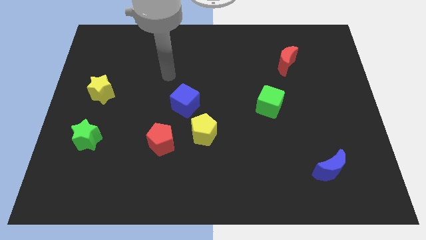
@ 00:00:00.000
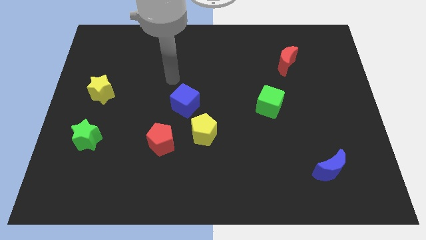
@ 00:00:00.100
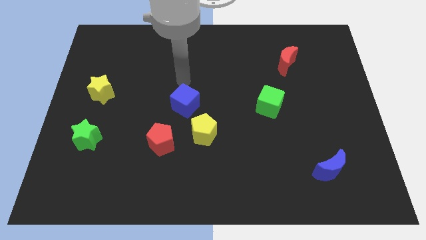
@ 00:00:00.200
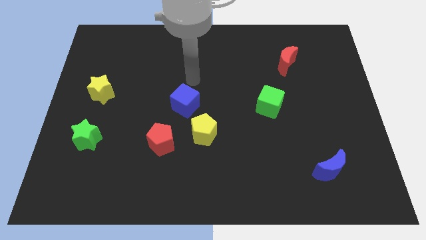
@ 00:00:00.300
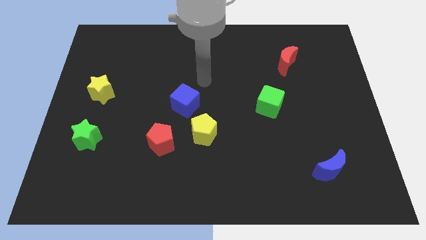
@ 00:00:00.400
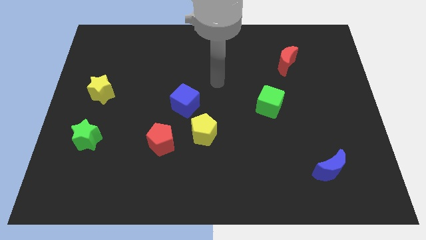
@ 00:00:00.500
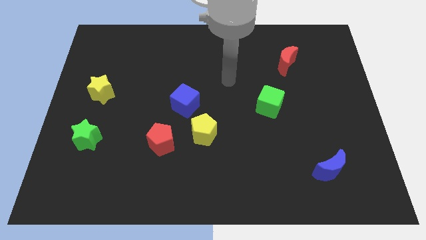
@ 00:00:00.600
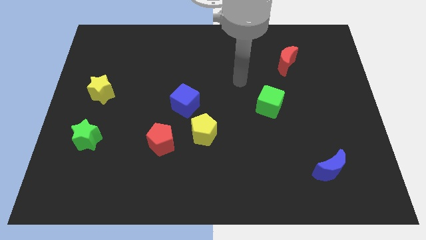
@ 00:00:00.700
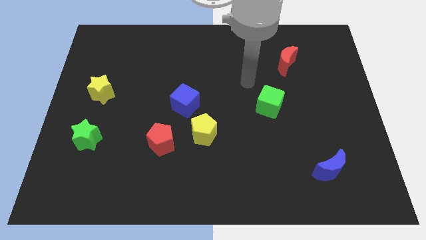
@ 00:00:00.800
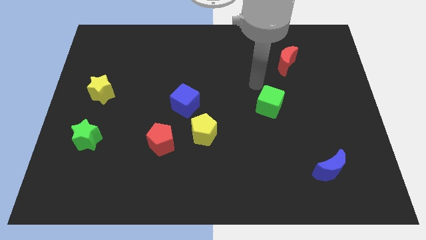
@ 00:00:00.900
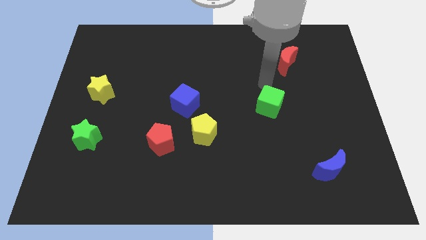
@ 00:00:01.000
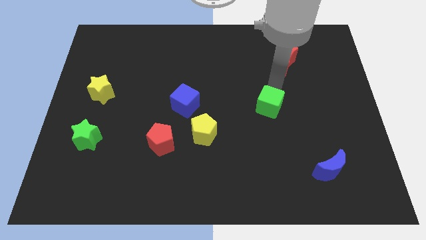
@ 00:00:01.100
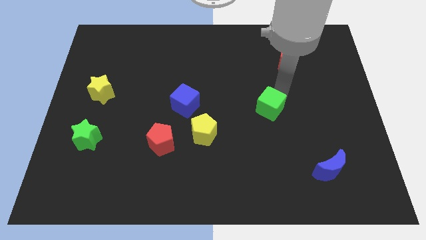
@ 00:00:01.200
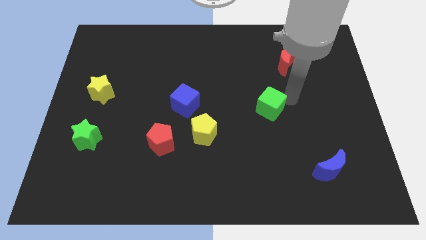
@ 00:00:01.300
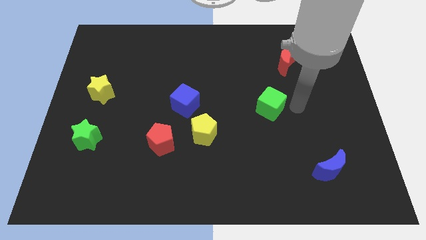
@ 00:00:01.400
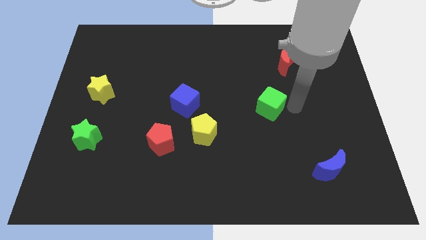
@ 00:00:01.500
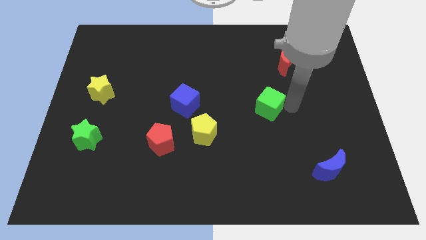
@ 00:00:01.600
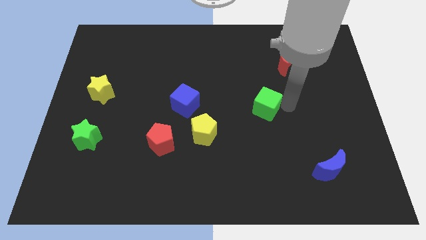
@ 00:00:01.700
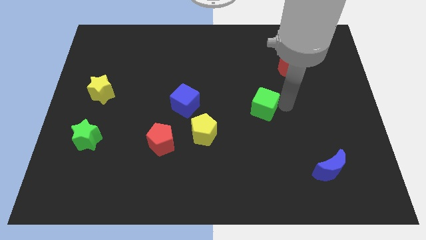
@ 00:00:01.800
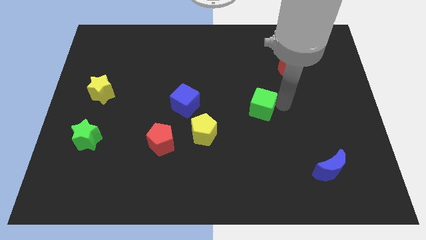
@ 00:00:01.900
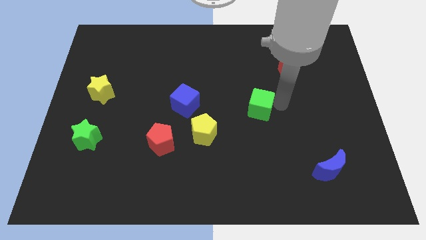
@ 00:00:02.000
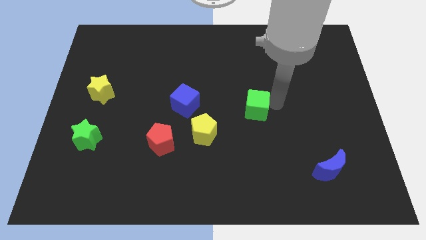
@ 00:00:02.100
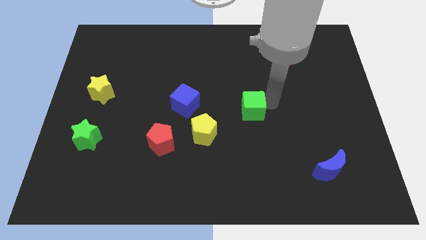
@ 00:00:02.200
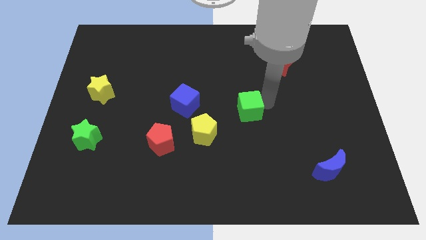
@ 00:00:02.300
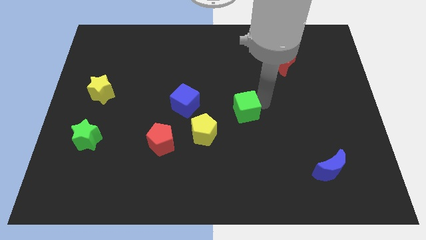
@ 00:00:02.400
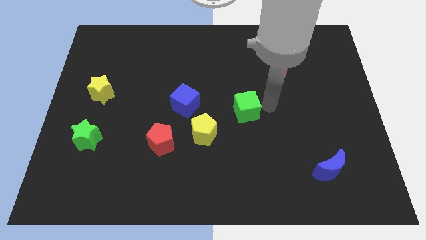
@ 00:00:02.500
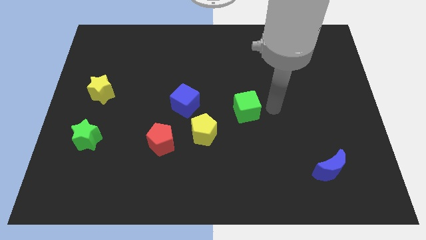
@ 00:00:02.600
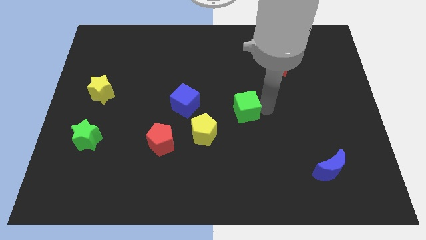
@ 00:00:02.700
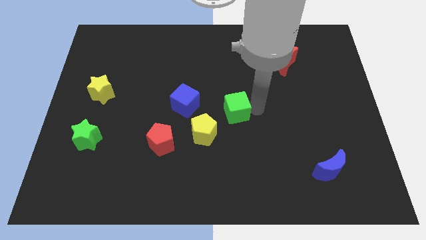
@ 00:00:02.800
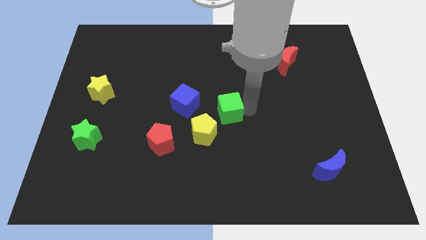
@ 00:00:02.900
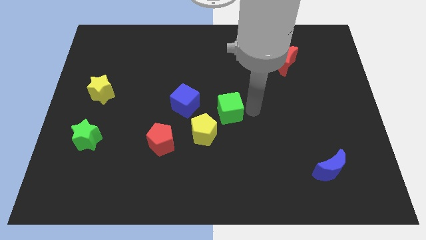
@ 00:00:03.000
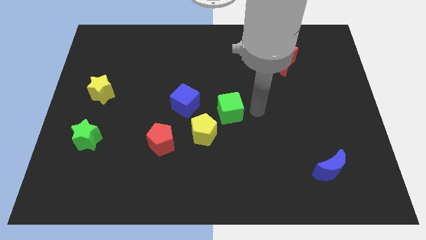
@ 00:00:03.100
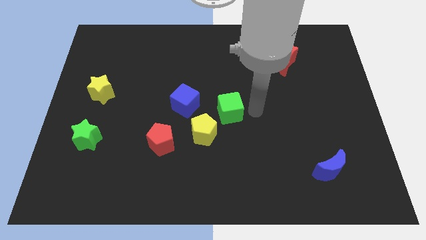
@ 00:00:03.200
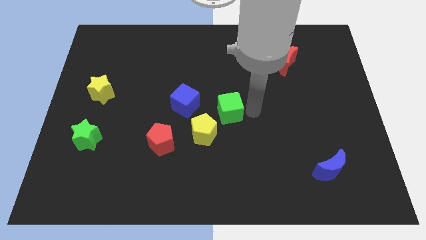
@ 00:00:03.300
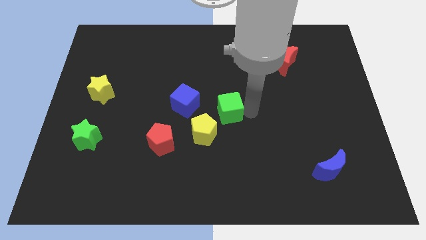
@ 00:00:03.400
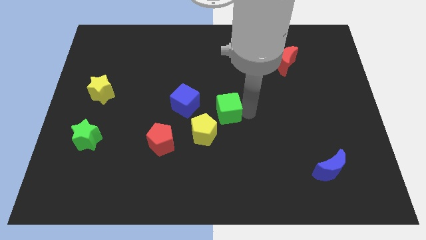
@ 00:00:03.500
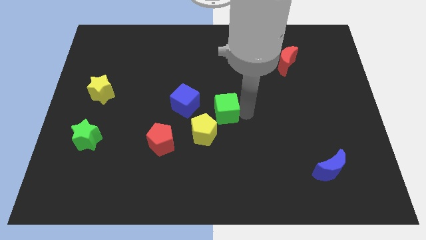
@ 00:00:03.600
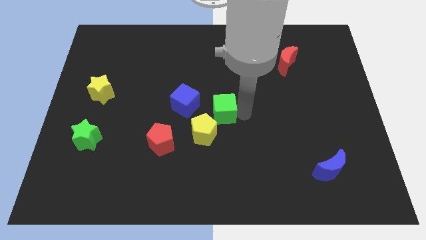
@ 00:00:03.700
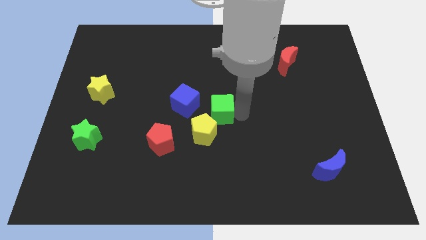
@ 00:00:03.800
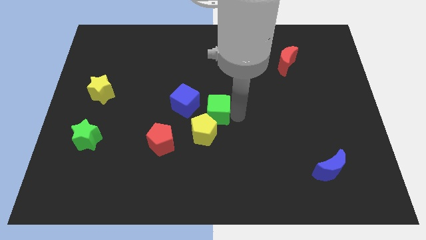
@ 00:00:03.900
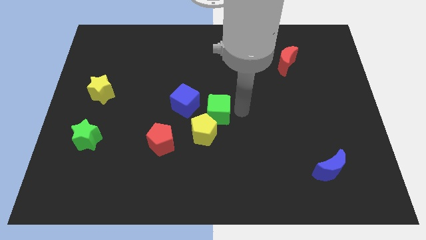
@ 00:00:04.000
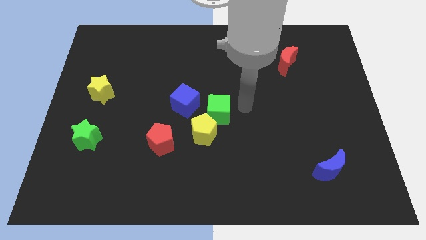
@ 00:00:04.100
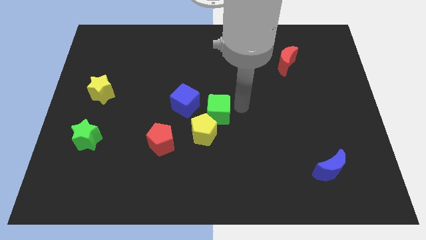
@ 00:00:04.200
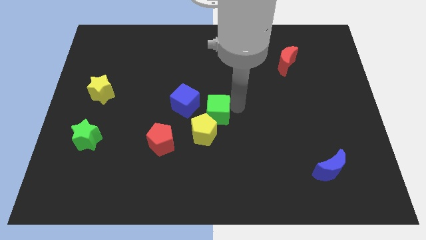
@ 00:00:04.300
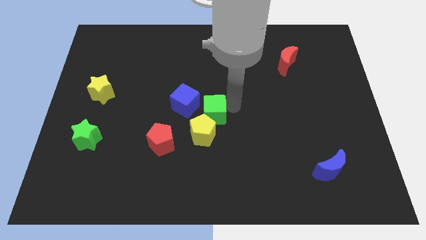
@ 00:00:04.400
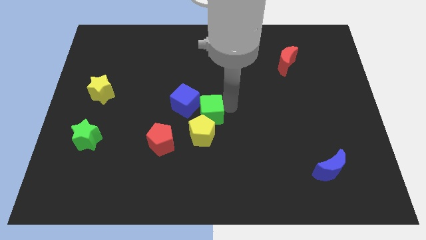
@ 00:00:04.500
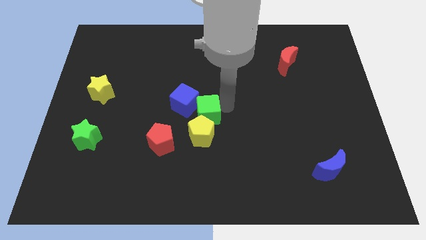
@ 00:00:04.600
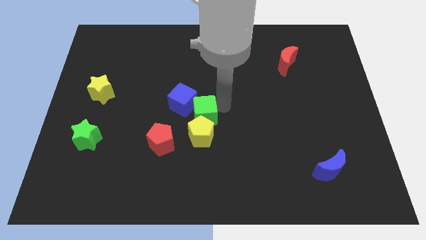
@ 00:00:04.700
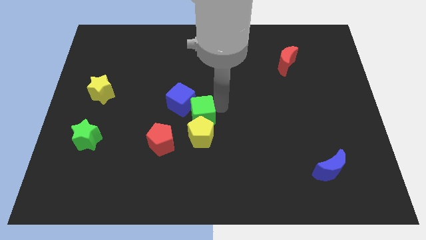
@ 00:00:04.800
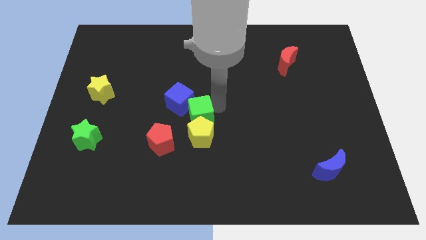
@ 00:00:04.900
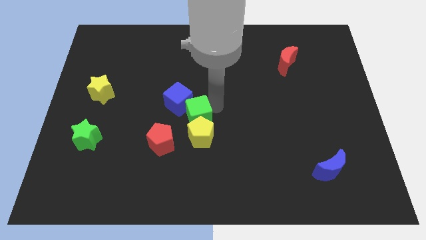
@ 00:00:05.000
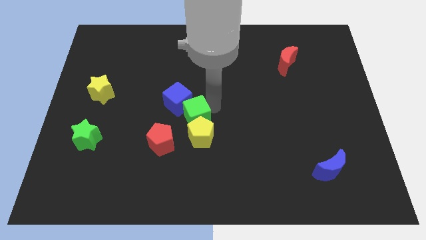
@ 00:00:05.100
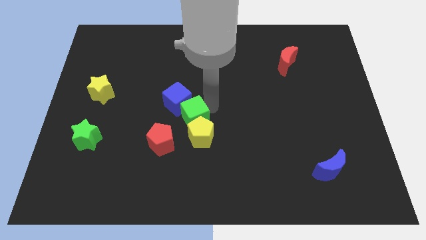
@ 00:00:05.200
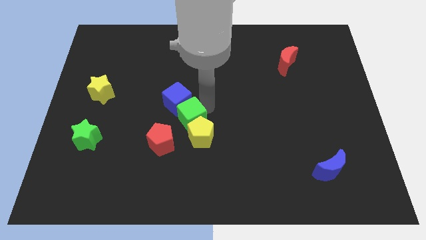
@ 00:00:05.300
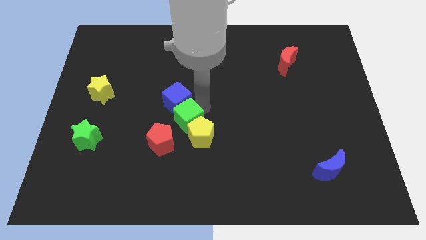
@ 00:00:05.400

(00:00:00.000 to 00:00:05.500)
slide the green cube just left of the yellow pentagon

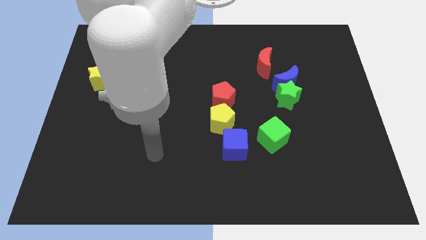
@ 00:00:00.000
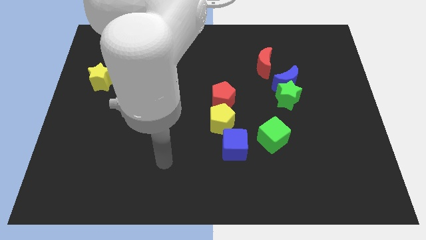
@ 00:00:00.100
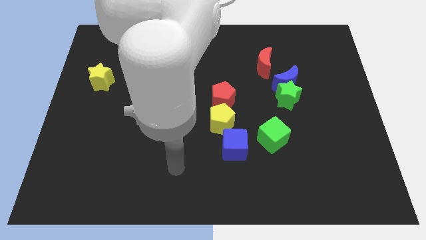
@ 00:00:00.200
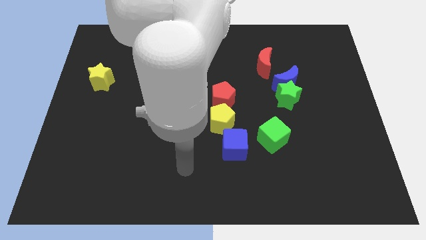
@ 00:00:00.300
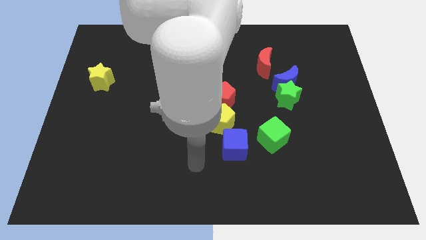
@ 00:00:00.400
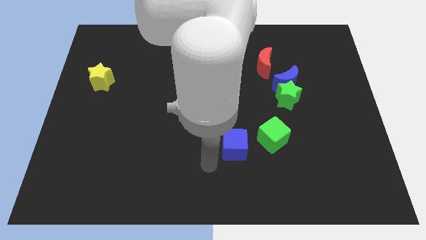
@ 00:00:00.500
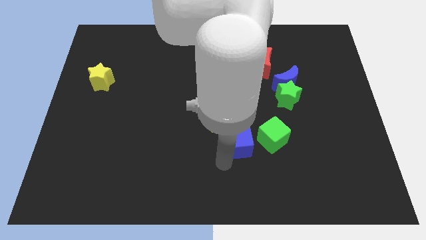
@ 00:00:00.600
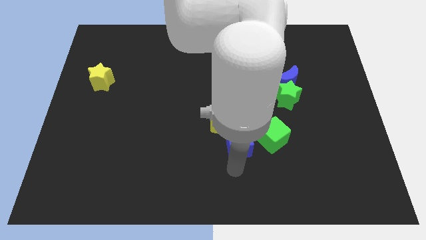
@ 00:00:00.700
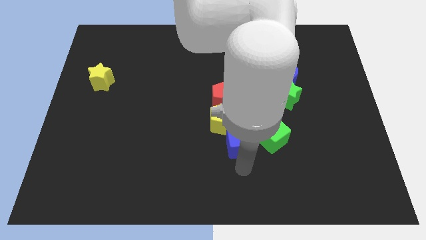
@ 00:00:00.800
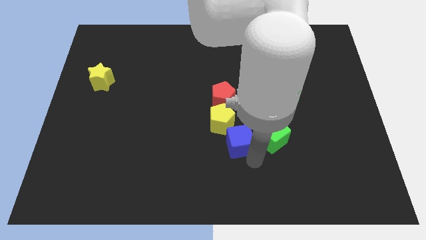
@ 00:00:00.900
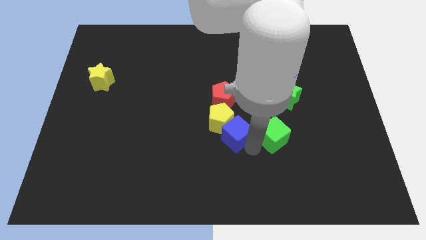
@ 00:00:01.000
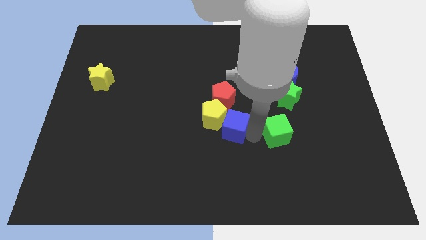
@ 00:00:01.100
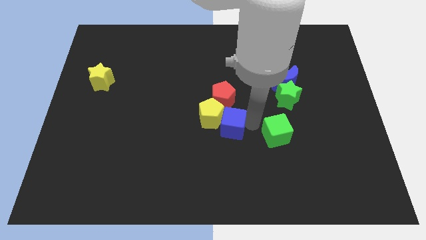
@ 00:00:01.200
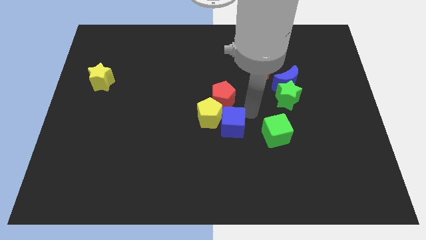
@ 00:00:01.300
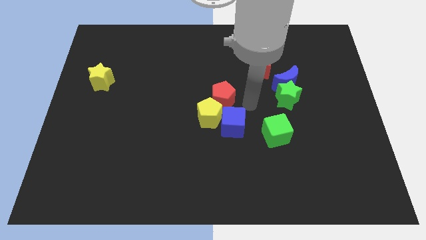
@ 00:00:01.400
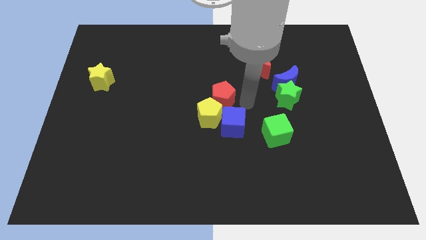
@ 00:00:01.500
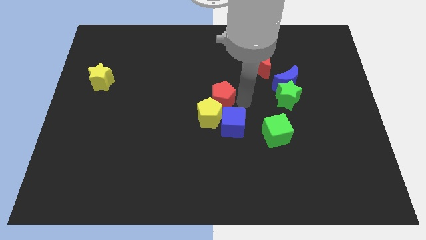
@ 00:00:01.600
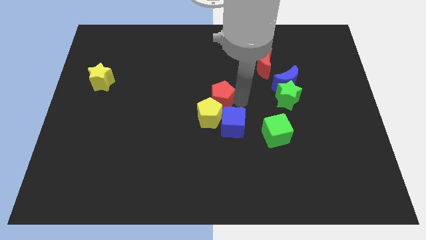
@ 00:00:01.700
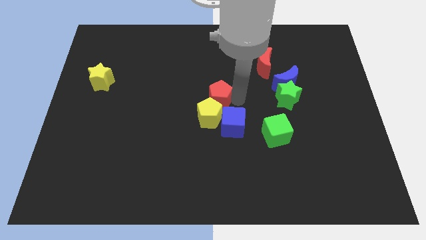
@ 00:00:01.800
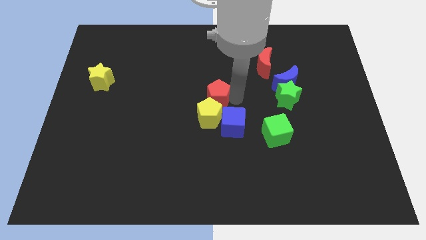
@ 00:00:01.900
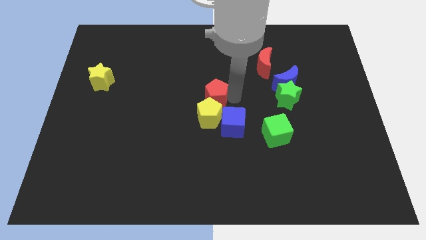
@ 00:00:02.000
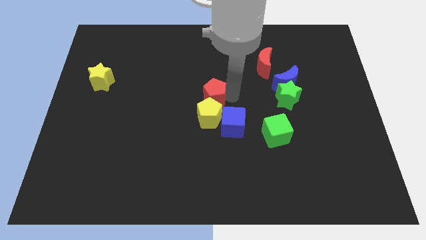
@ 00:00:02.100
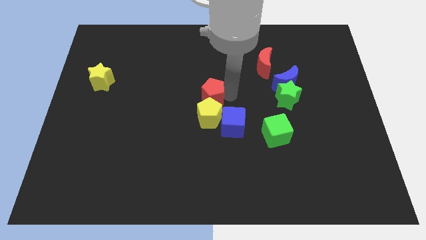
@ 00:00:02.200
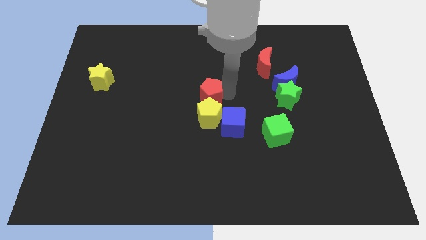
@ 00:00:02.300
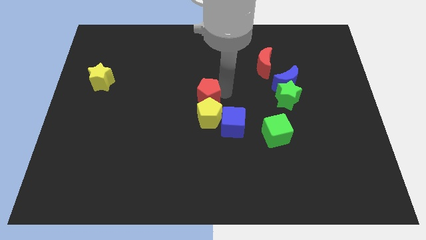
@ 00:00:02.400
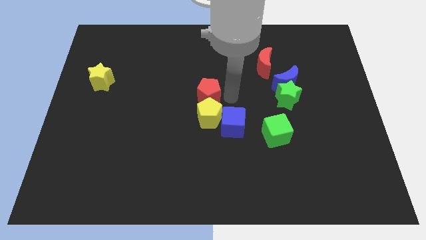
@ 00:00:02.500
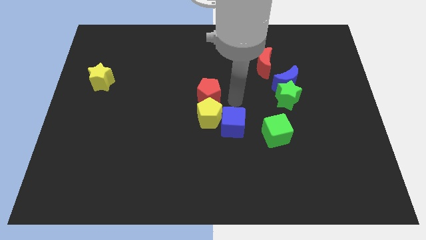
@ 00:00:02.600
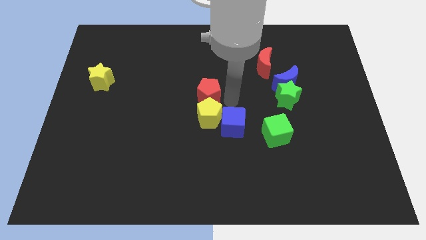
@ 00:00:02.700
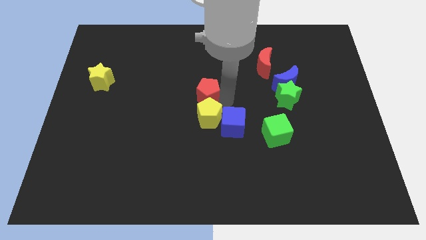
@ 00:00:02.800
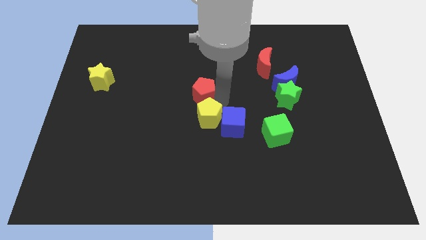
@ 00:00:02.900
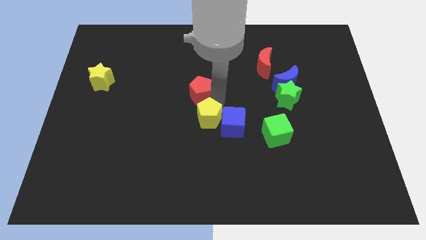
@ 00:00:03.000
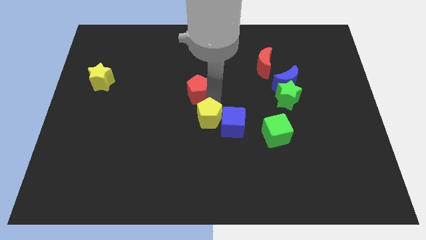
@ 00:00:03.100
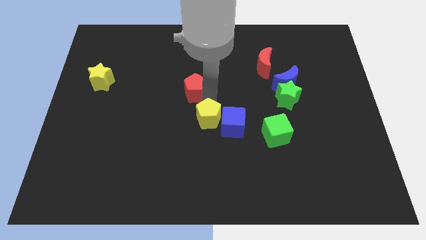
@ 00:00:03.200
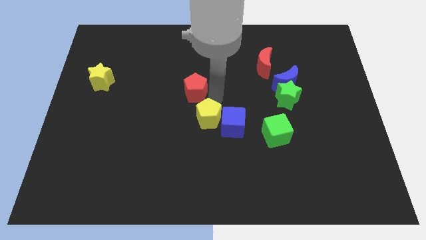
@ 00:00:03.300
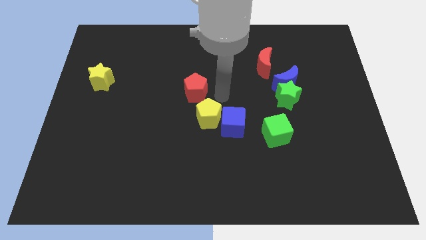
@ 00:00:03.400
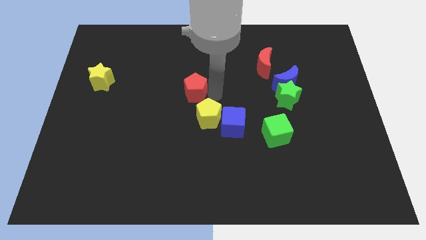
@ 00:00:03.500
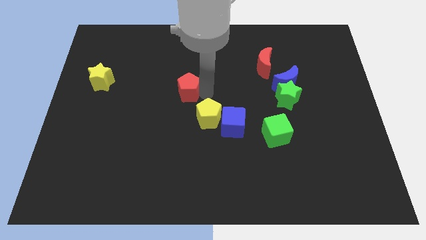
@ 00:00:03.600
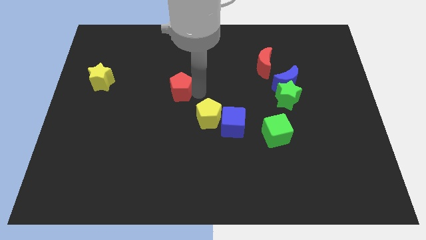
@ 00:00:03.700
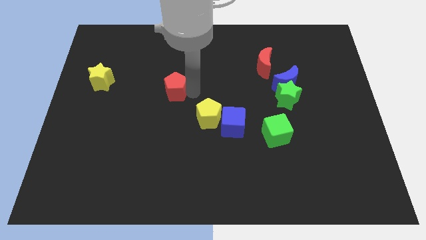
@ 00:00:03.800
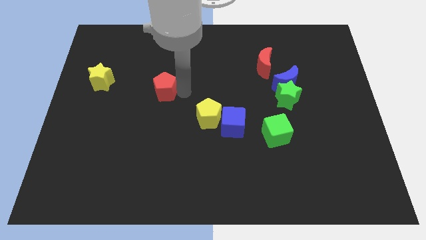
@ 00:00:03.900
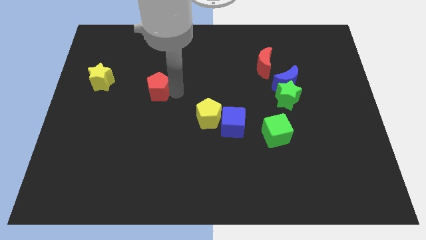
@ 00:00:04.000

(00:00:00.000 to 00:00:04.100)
put the red pentagon just right of the yellow star
